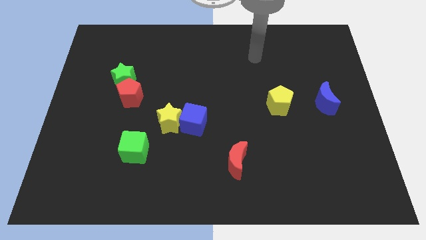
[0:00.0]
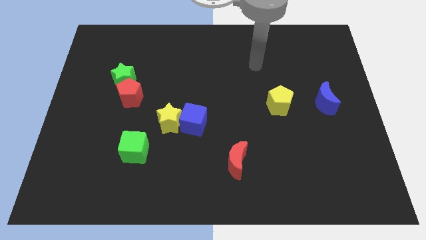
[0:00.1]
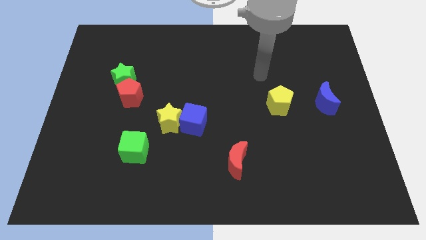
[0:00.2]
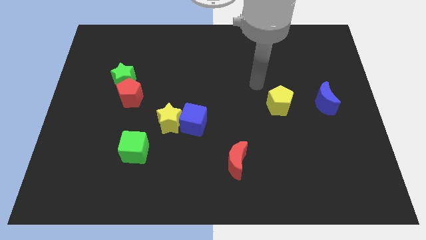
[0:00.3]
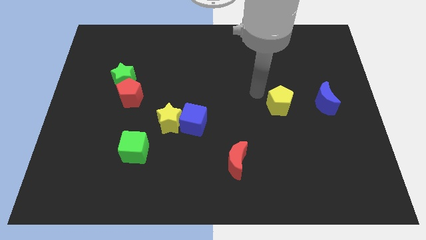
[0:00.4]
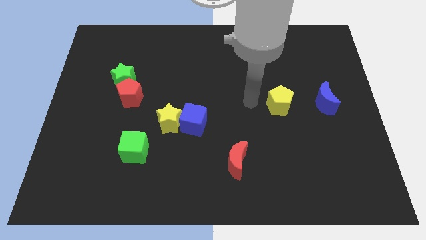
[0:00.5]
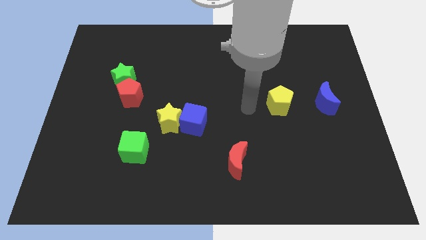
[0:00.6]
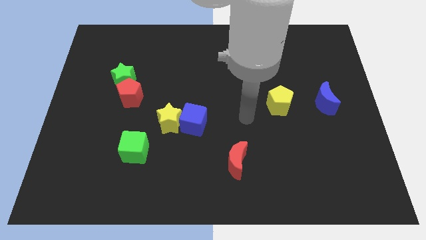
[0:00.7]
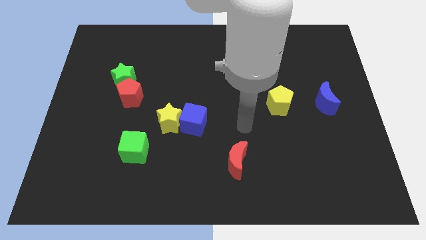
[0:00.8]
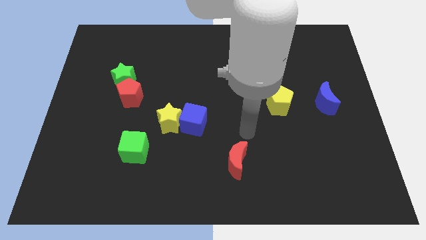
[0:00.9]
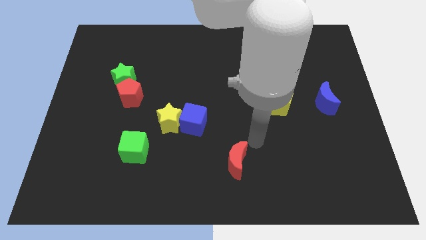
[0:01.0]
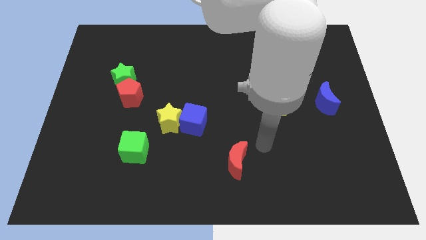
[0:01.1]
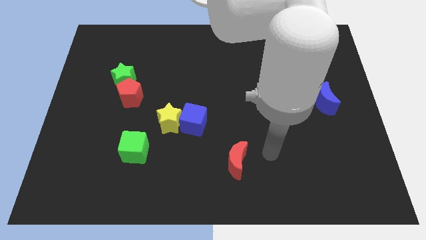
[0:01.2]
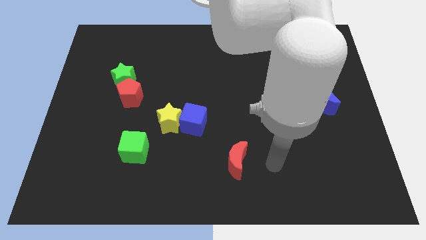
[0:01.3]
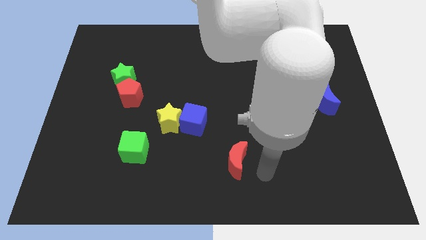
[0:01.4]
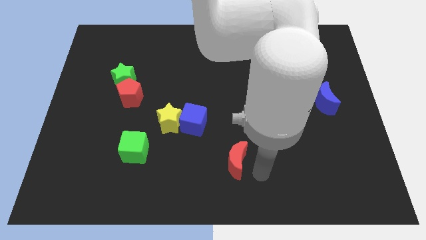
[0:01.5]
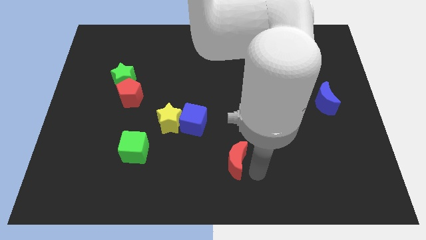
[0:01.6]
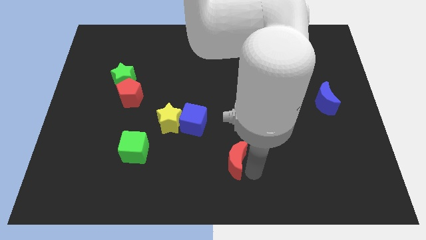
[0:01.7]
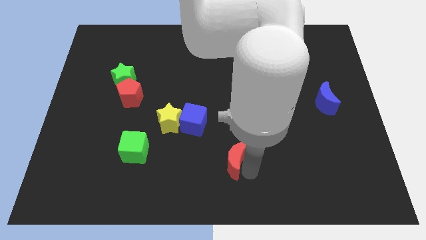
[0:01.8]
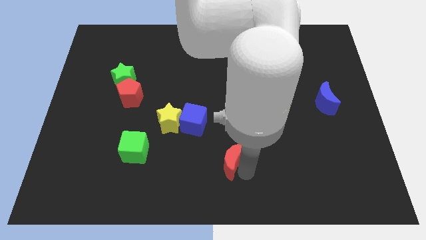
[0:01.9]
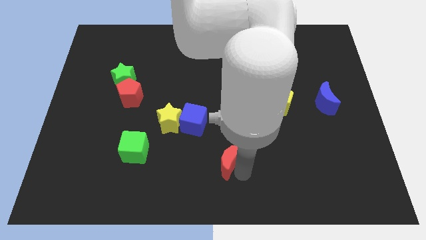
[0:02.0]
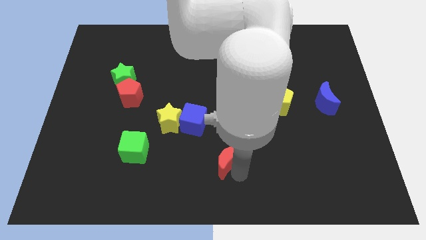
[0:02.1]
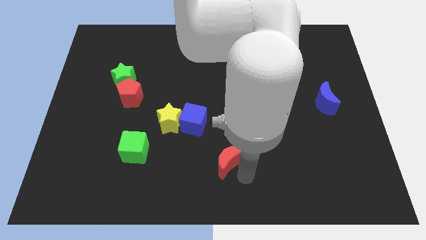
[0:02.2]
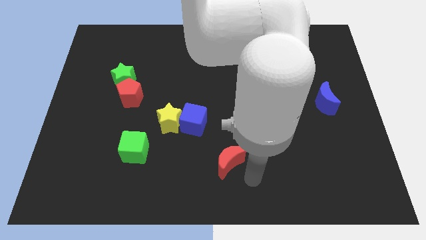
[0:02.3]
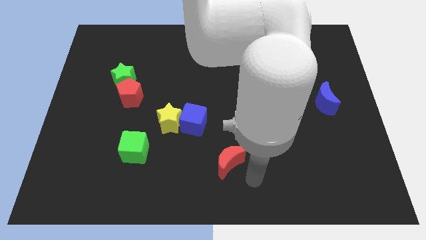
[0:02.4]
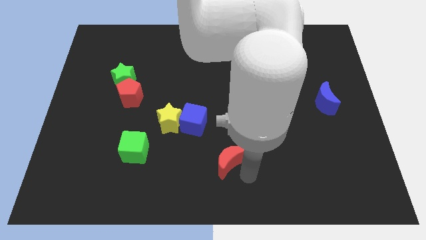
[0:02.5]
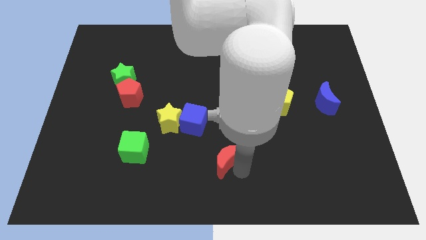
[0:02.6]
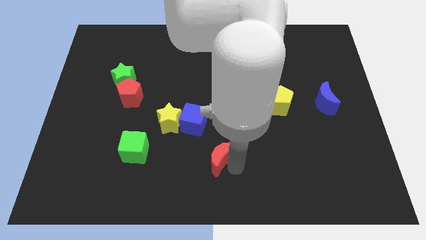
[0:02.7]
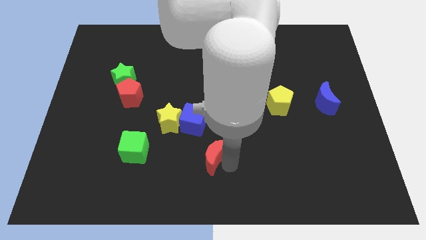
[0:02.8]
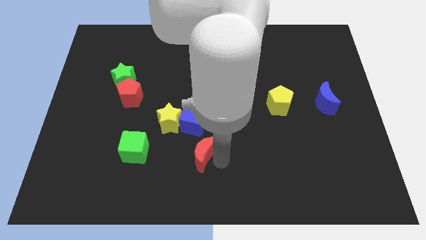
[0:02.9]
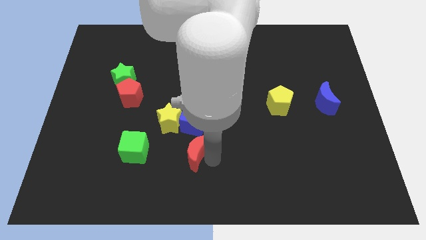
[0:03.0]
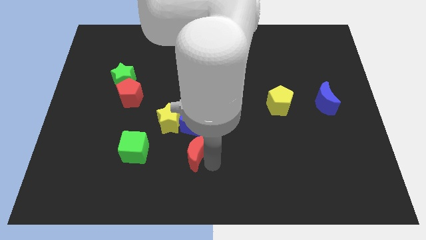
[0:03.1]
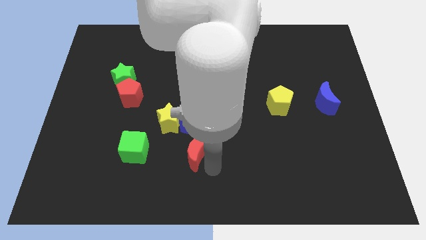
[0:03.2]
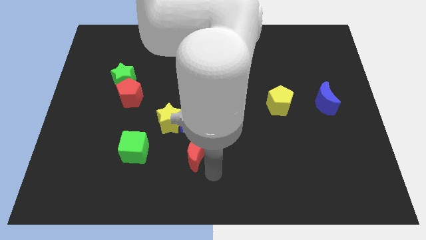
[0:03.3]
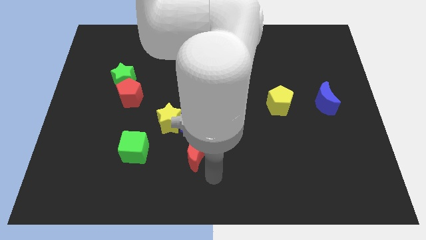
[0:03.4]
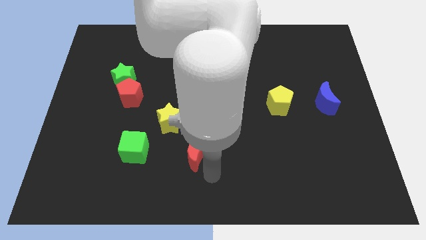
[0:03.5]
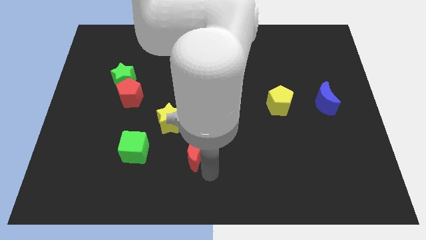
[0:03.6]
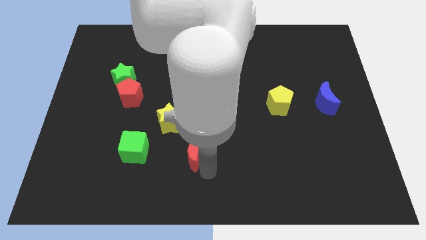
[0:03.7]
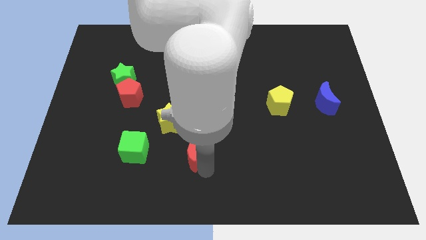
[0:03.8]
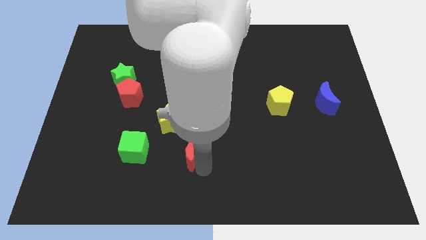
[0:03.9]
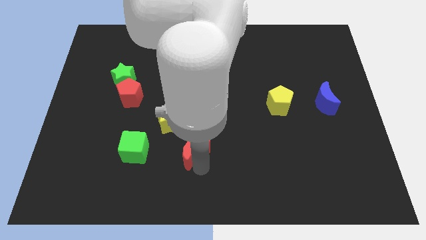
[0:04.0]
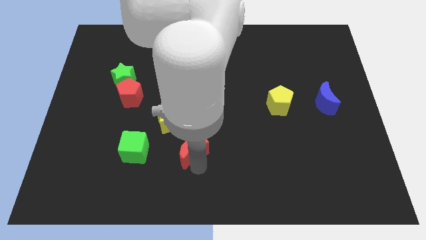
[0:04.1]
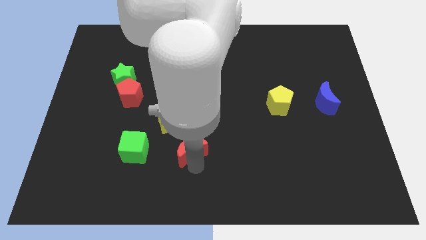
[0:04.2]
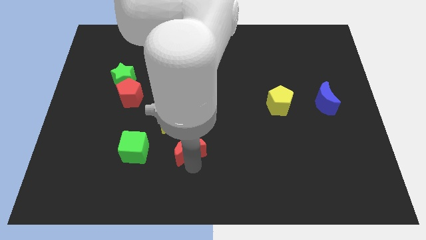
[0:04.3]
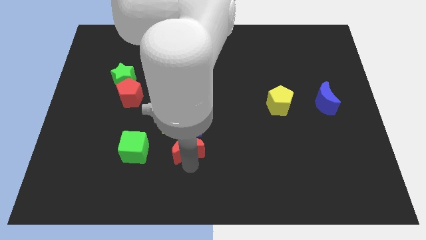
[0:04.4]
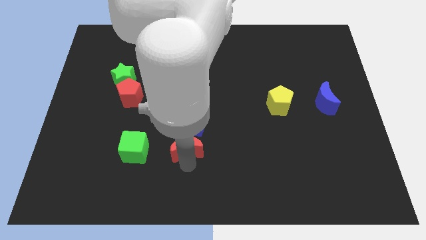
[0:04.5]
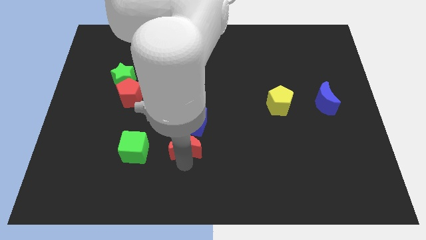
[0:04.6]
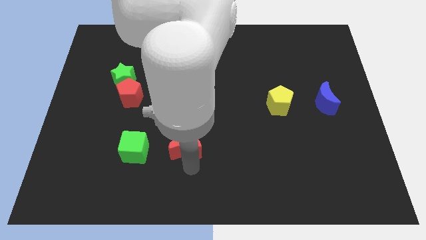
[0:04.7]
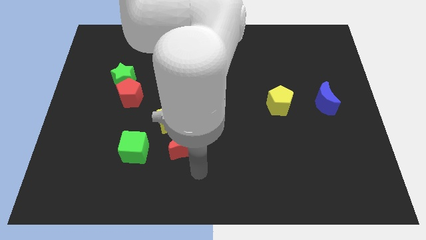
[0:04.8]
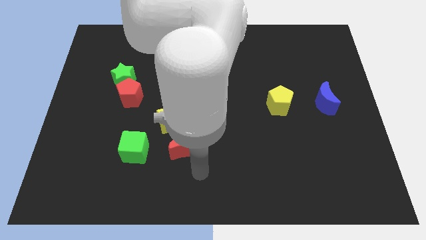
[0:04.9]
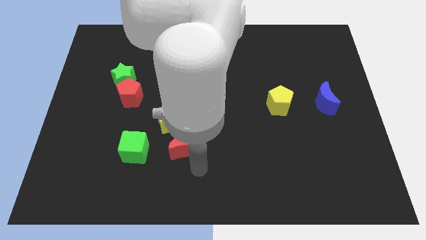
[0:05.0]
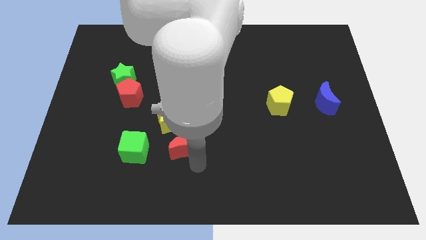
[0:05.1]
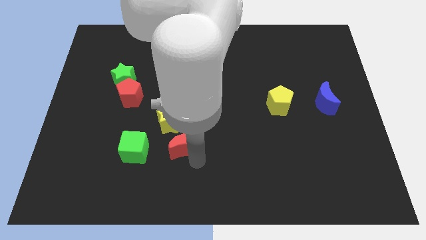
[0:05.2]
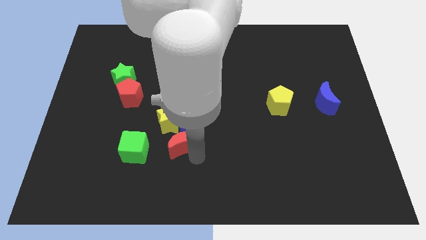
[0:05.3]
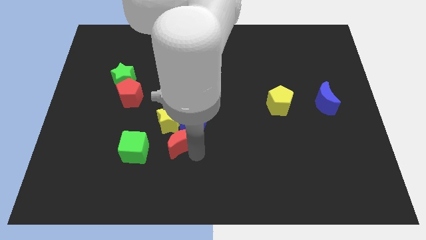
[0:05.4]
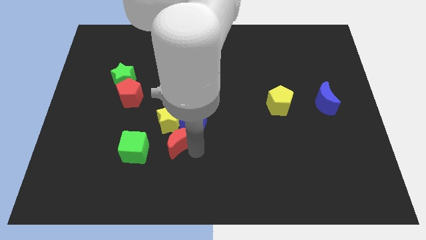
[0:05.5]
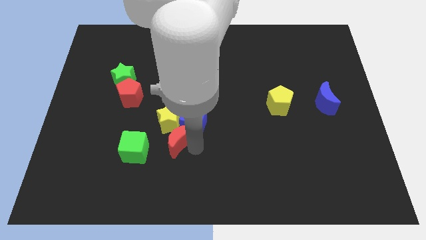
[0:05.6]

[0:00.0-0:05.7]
put the red moon close to the yellow star

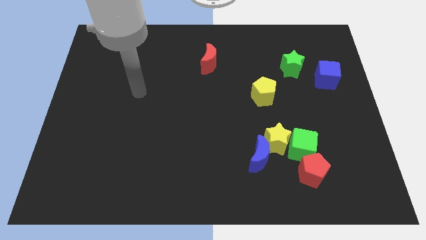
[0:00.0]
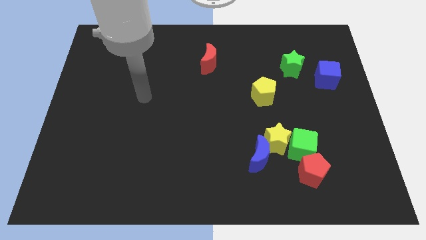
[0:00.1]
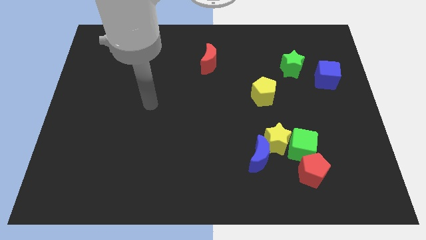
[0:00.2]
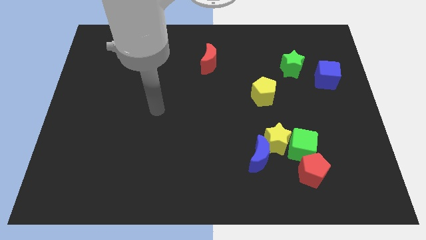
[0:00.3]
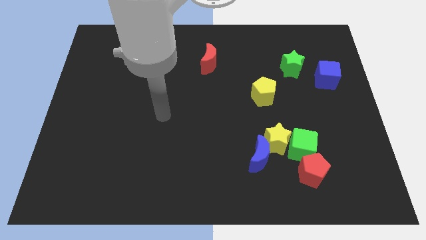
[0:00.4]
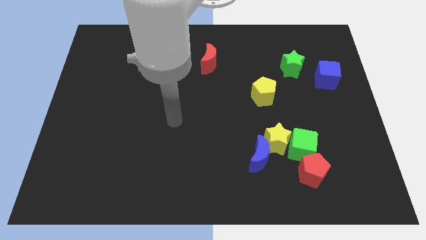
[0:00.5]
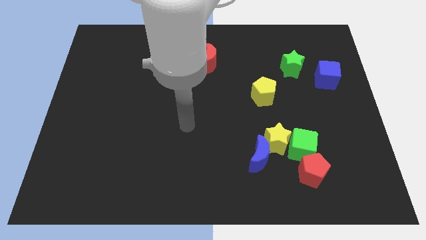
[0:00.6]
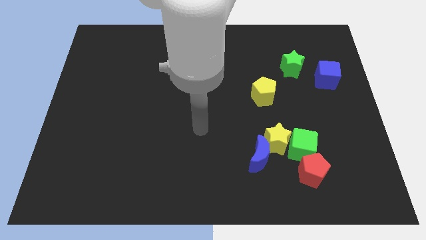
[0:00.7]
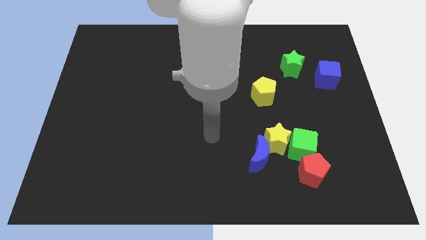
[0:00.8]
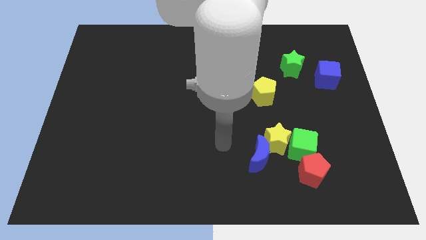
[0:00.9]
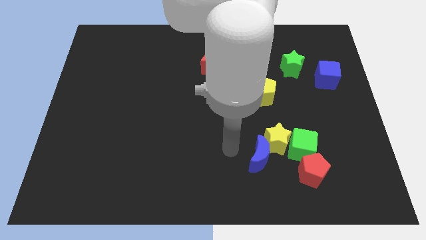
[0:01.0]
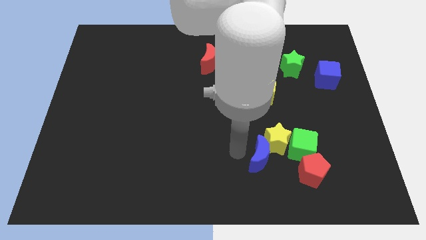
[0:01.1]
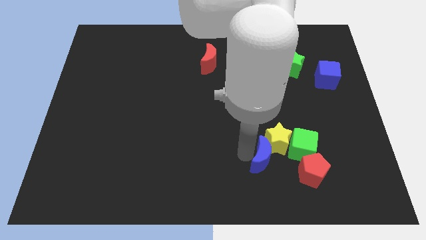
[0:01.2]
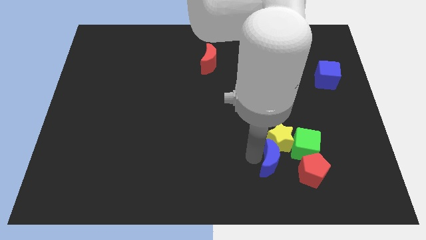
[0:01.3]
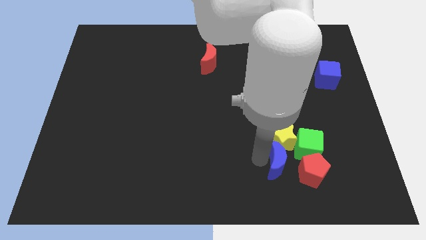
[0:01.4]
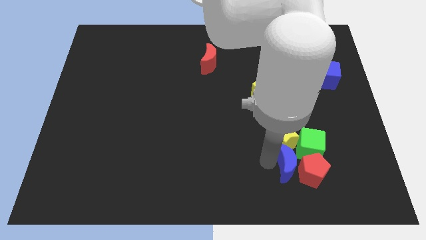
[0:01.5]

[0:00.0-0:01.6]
put the blue moon next to the red pentagon
